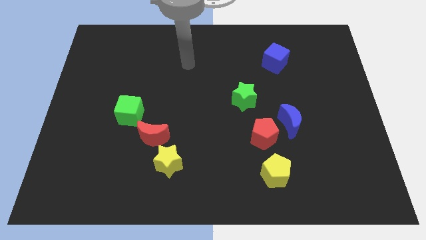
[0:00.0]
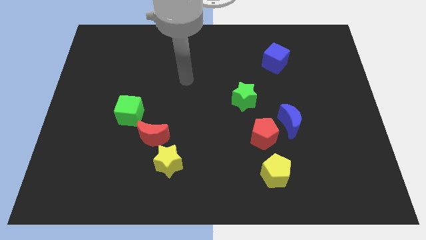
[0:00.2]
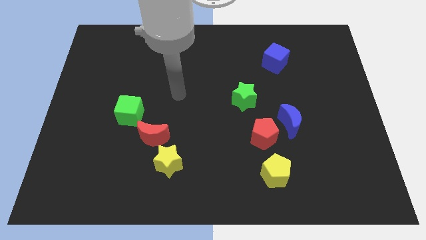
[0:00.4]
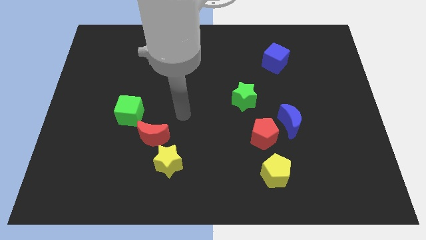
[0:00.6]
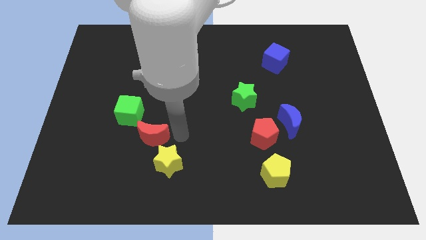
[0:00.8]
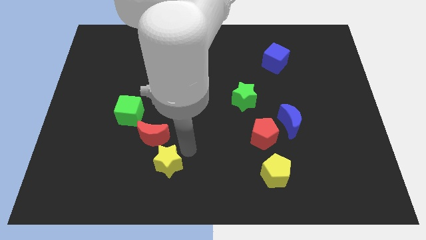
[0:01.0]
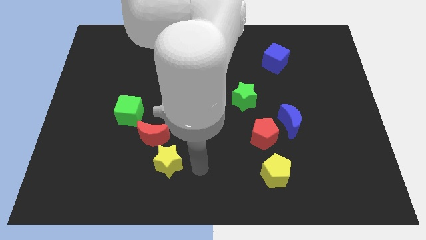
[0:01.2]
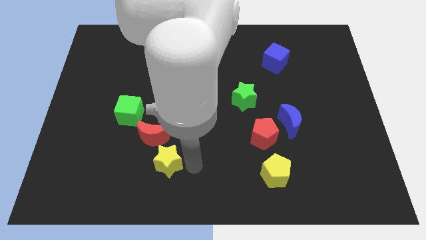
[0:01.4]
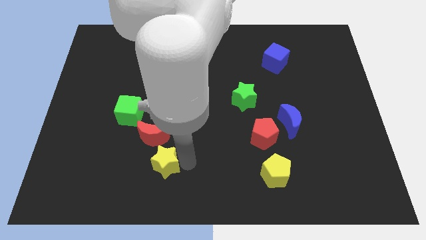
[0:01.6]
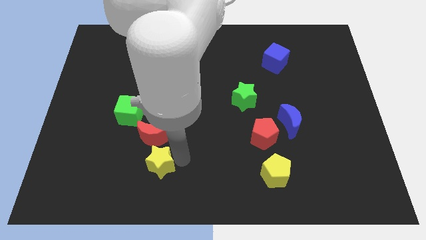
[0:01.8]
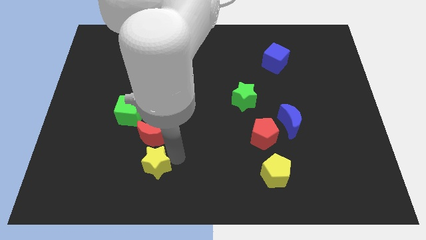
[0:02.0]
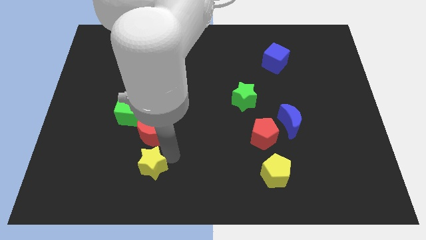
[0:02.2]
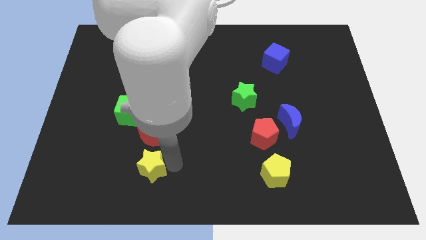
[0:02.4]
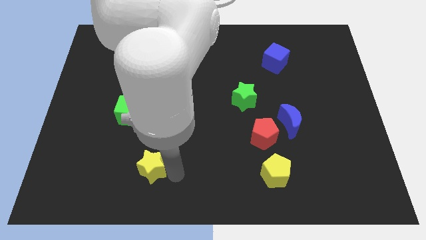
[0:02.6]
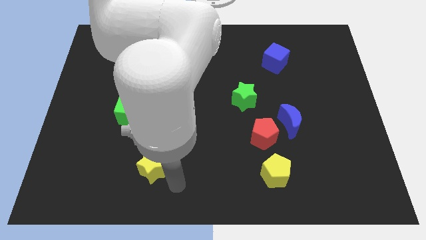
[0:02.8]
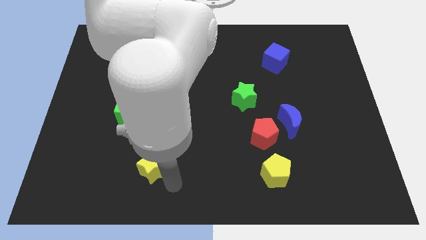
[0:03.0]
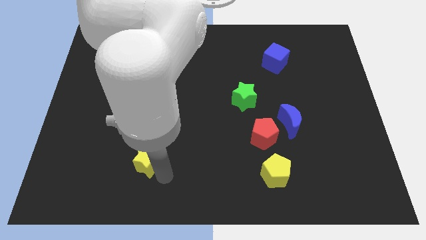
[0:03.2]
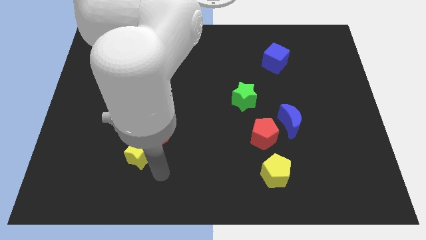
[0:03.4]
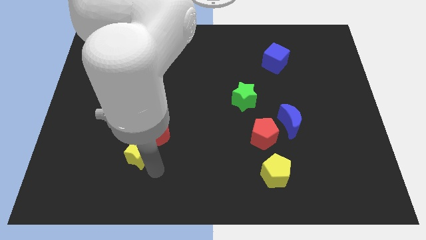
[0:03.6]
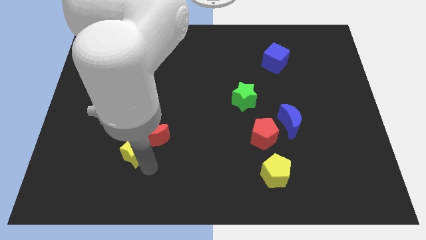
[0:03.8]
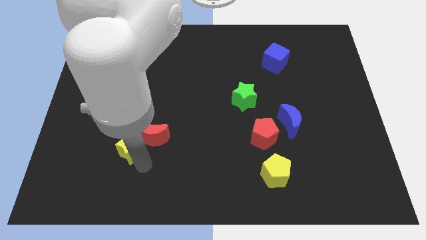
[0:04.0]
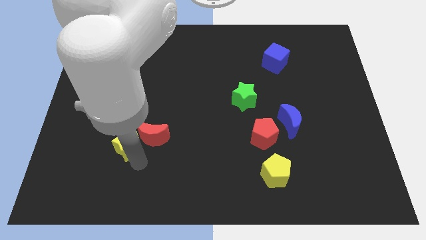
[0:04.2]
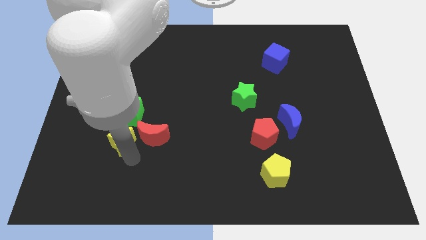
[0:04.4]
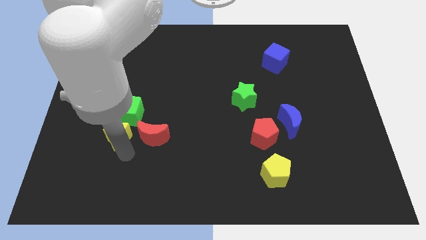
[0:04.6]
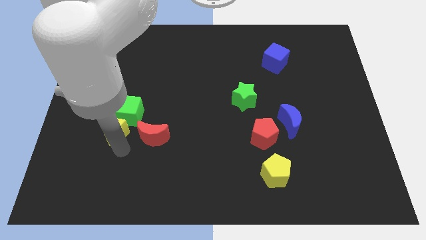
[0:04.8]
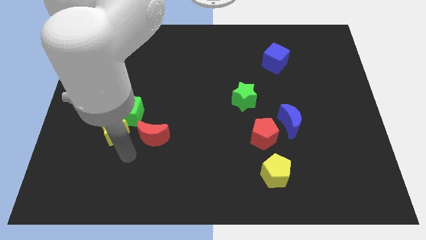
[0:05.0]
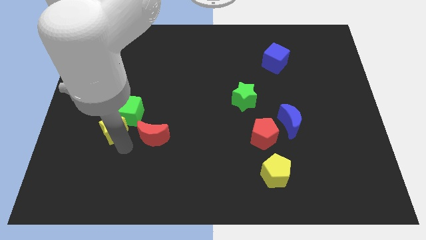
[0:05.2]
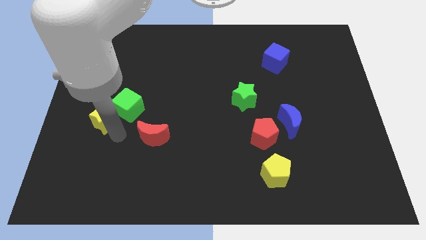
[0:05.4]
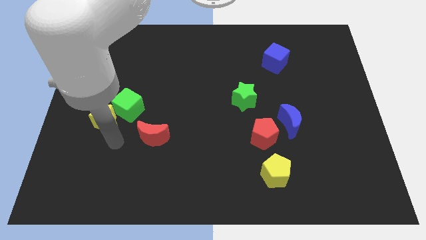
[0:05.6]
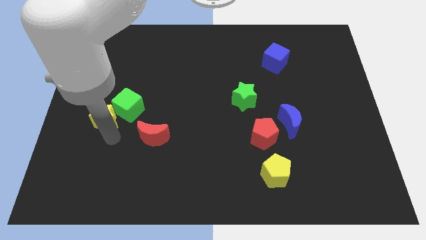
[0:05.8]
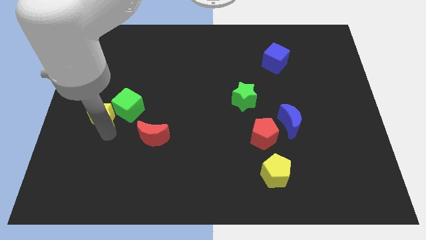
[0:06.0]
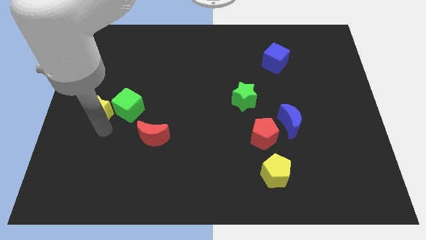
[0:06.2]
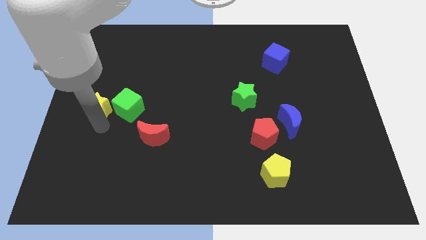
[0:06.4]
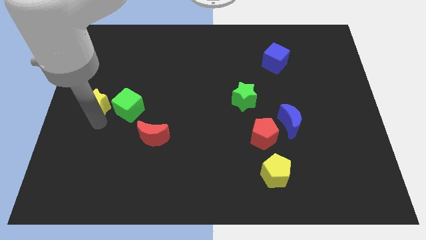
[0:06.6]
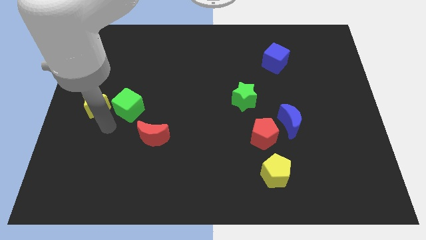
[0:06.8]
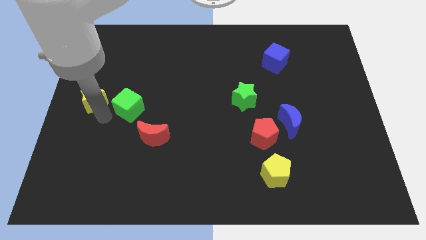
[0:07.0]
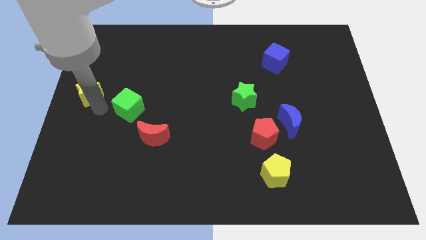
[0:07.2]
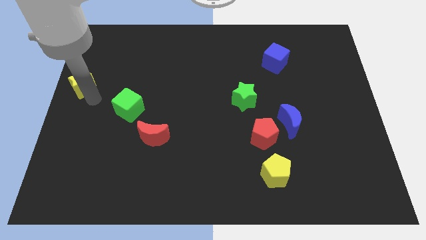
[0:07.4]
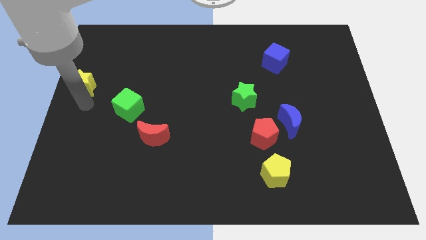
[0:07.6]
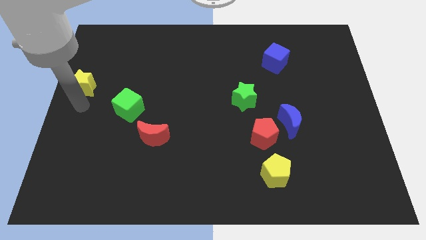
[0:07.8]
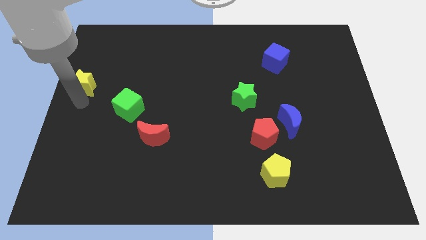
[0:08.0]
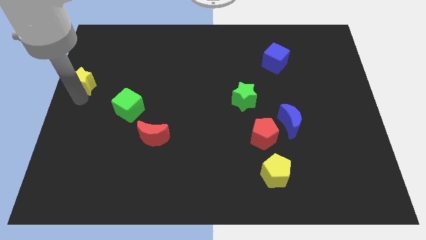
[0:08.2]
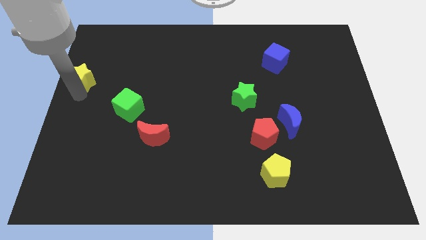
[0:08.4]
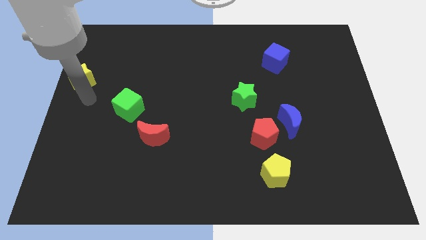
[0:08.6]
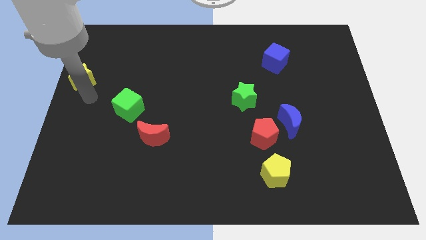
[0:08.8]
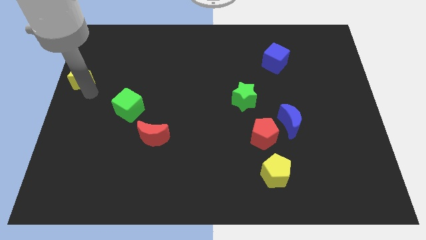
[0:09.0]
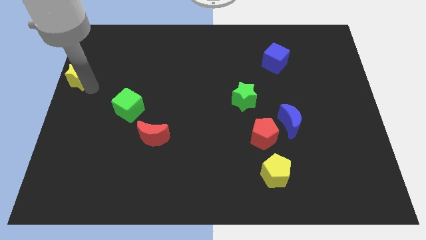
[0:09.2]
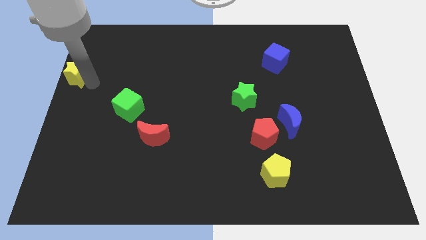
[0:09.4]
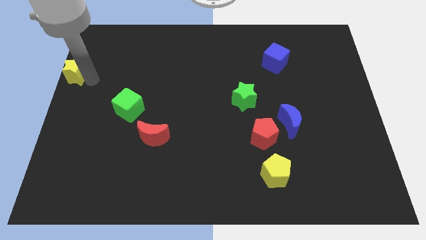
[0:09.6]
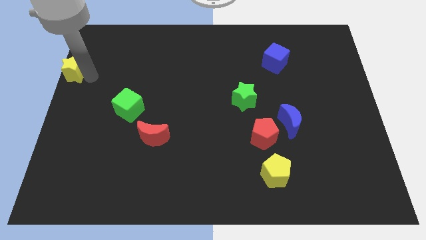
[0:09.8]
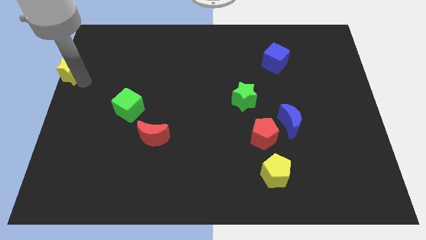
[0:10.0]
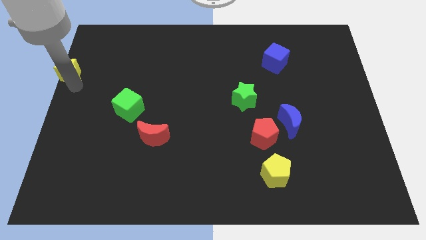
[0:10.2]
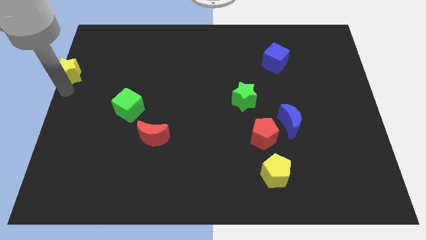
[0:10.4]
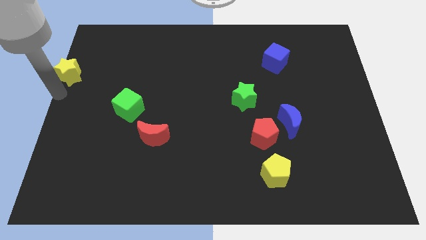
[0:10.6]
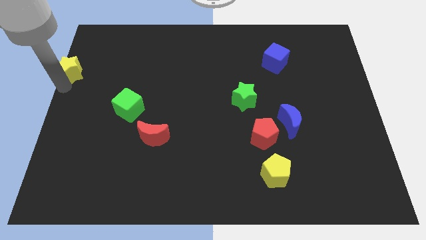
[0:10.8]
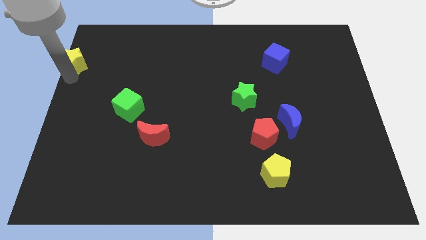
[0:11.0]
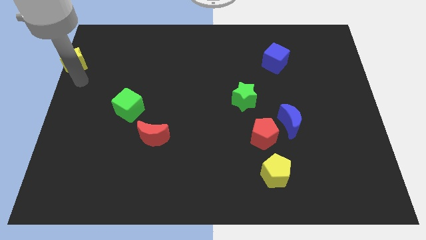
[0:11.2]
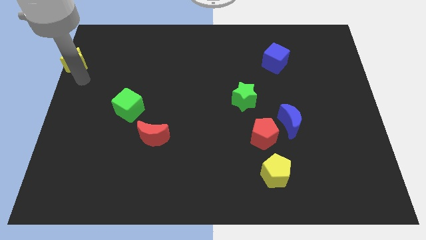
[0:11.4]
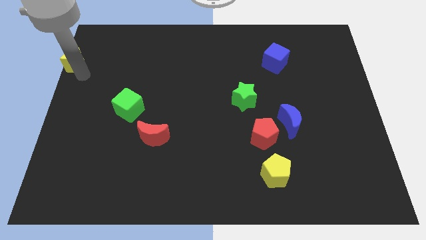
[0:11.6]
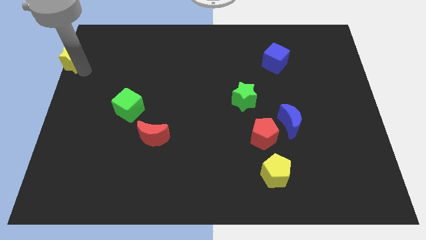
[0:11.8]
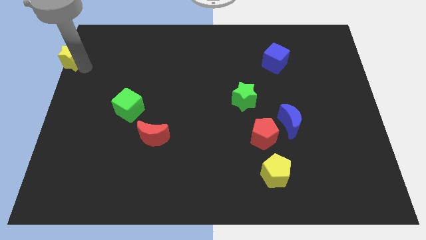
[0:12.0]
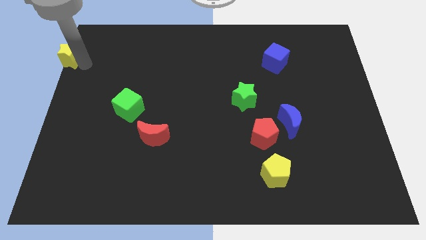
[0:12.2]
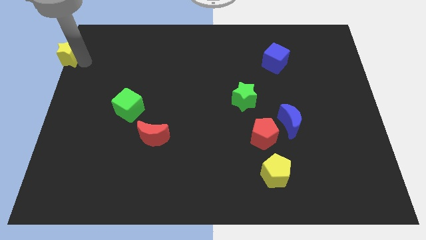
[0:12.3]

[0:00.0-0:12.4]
put the yellow star to the upper left corner
